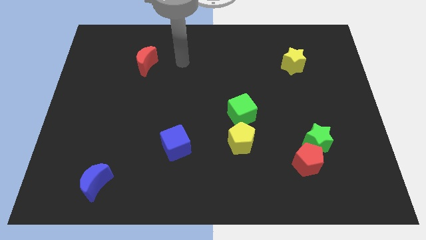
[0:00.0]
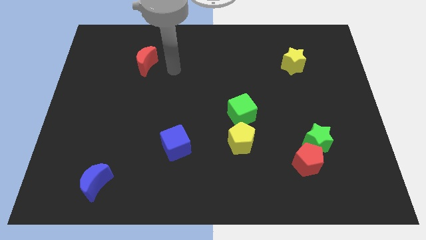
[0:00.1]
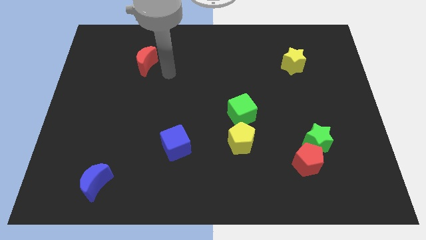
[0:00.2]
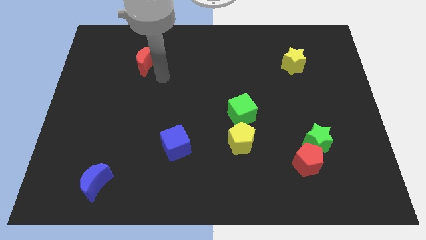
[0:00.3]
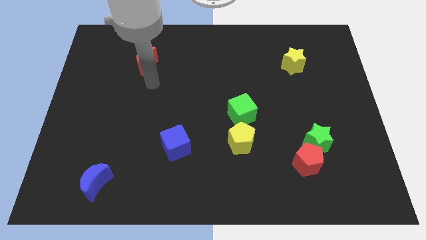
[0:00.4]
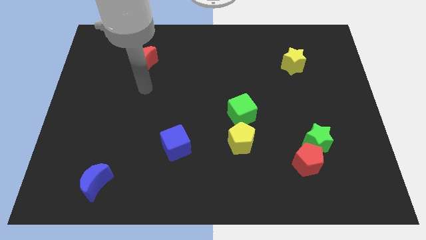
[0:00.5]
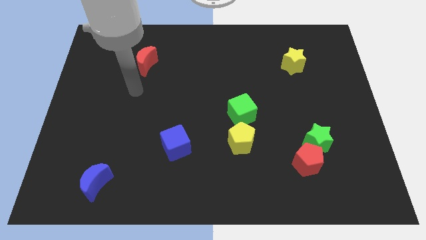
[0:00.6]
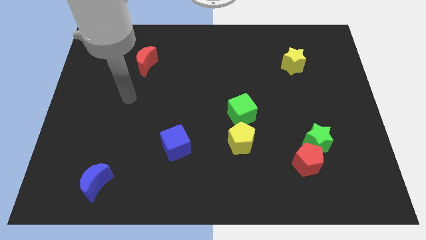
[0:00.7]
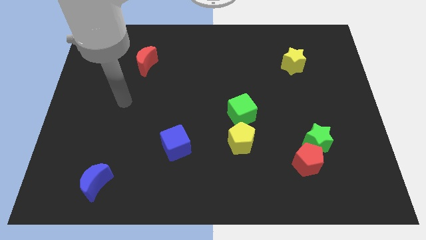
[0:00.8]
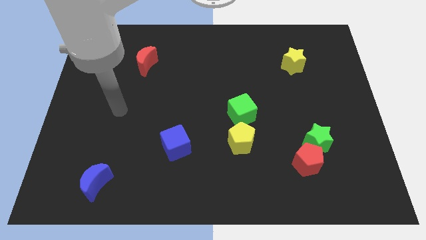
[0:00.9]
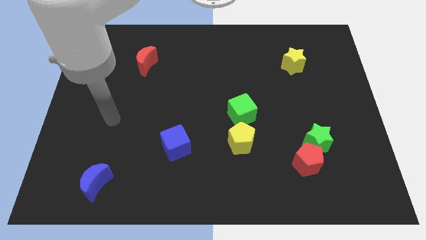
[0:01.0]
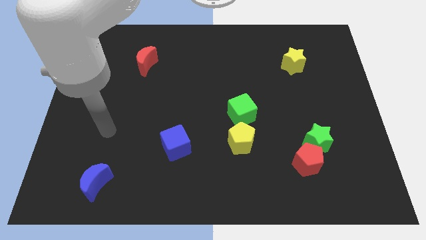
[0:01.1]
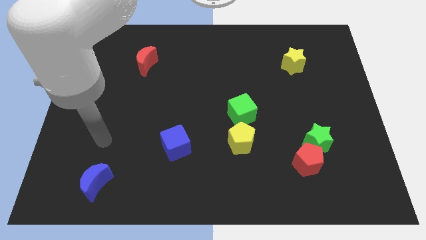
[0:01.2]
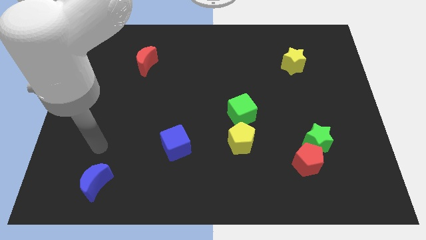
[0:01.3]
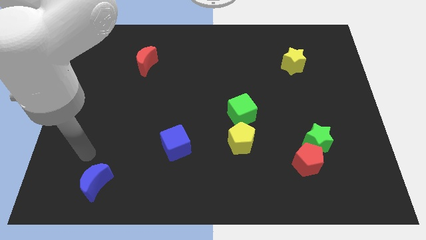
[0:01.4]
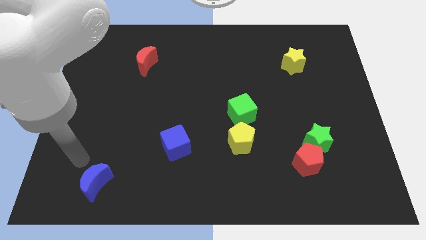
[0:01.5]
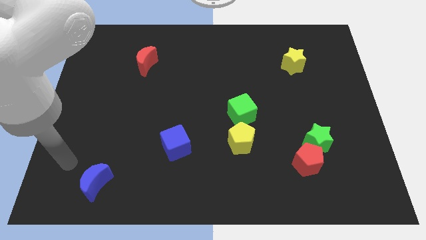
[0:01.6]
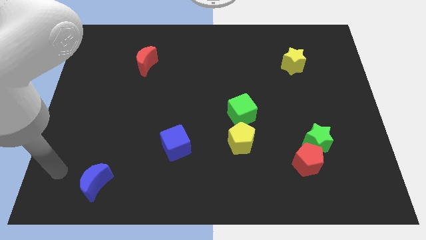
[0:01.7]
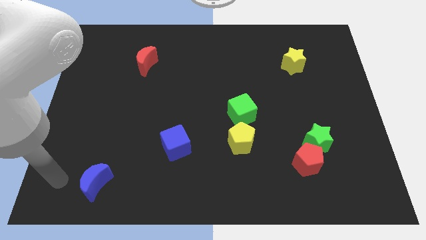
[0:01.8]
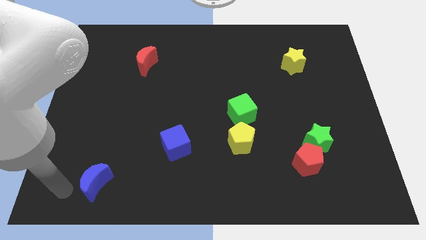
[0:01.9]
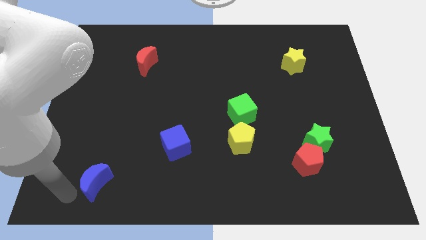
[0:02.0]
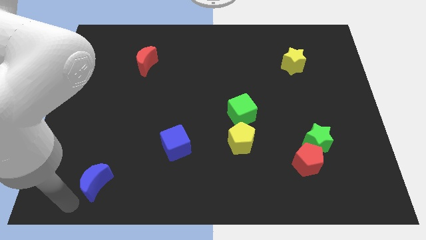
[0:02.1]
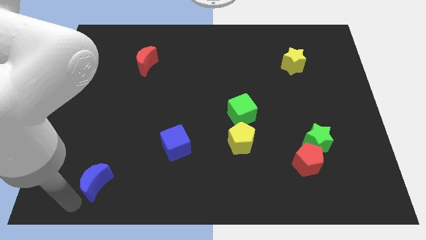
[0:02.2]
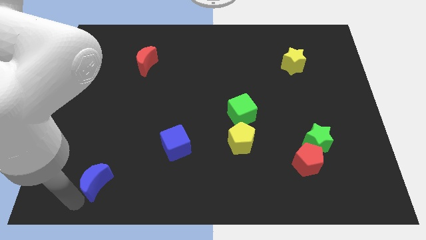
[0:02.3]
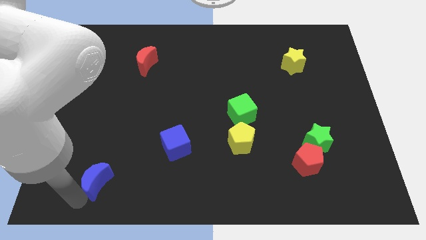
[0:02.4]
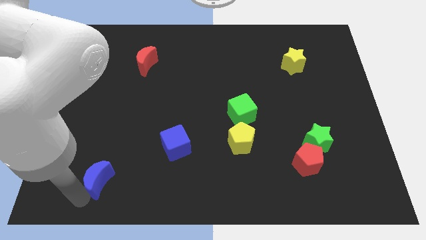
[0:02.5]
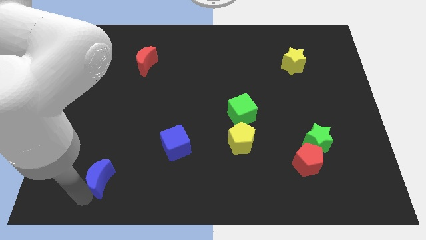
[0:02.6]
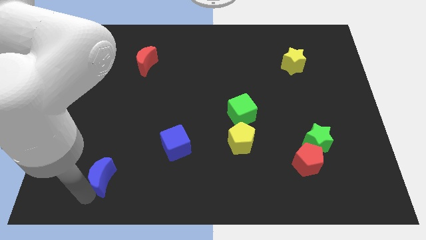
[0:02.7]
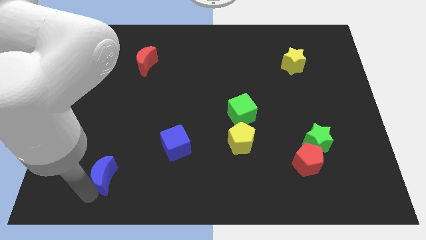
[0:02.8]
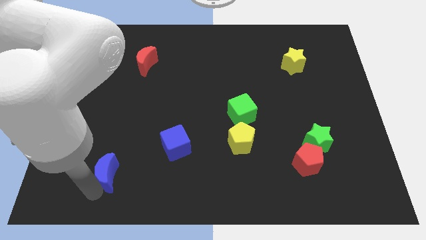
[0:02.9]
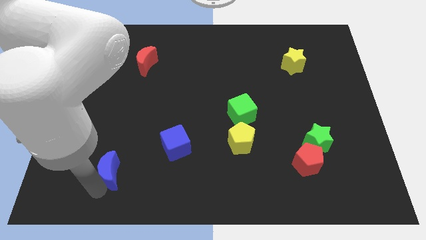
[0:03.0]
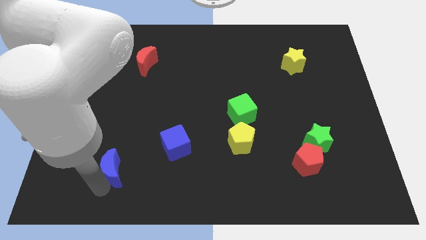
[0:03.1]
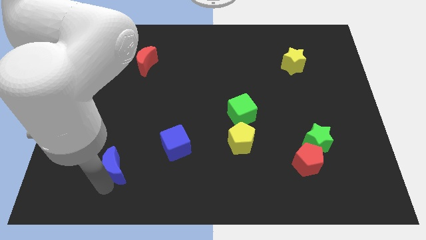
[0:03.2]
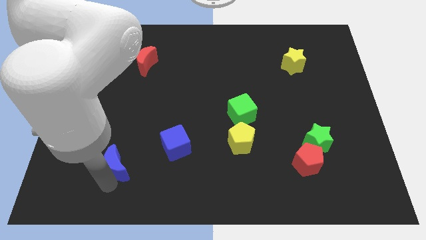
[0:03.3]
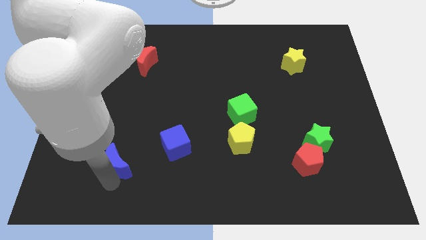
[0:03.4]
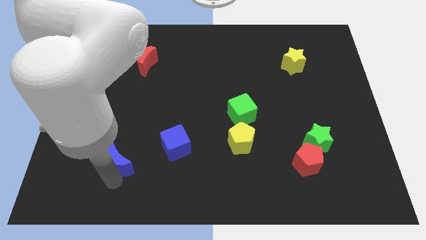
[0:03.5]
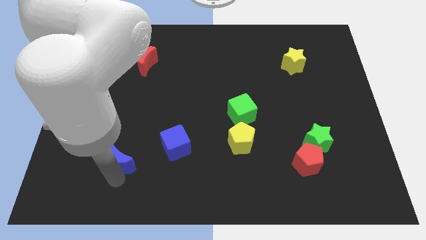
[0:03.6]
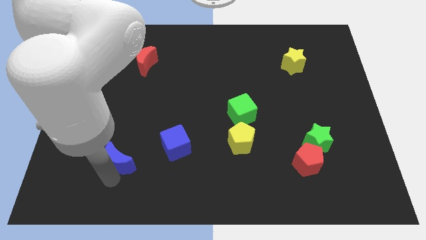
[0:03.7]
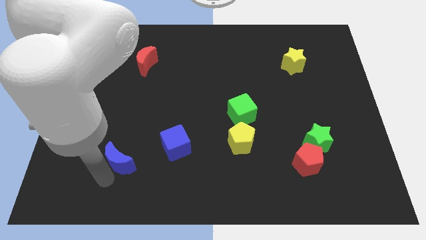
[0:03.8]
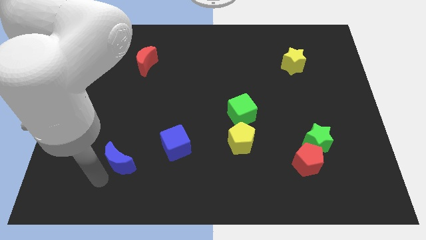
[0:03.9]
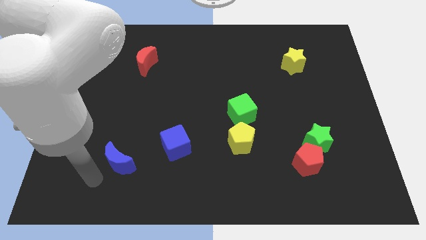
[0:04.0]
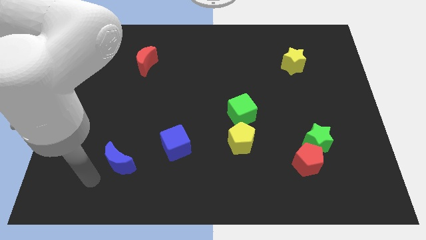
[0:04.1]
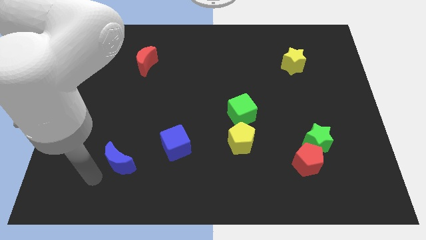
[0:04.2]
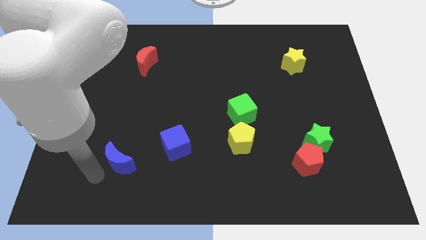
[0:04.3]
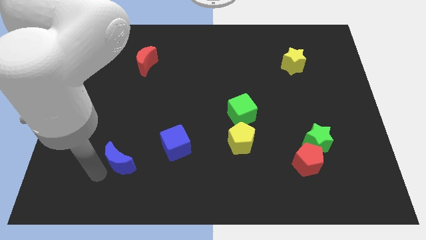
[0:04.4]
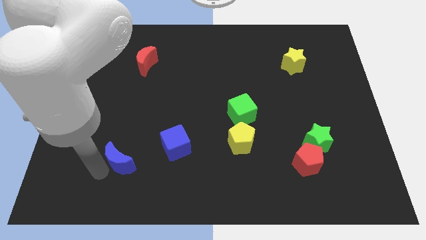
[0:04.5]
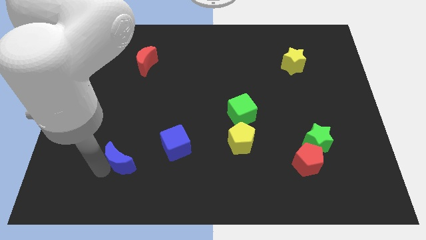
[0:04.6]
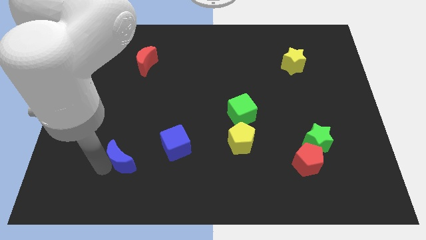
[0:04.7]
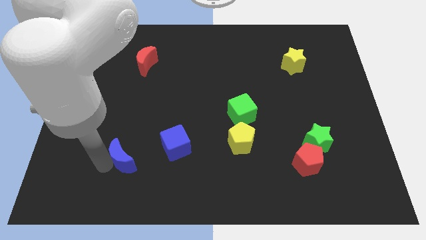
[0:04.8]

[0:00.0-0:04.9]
move the blue moon a bit upwards and right diagonally

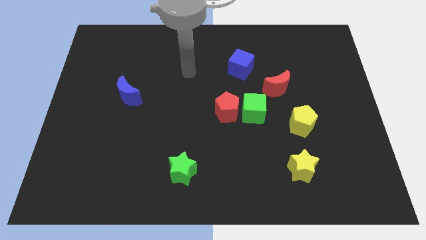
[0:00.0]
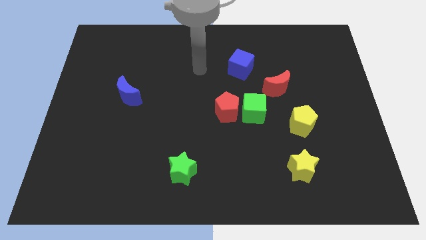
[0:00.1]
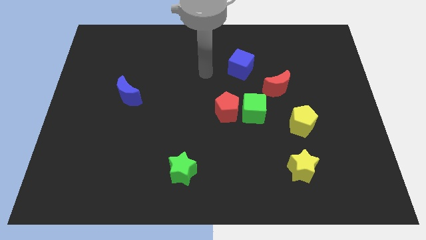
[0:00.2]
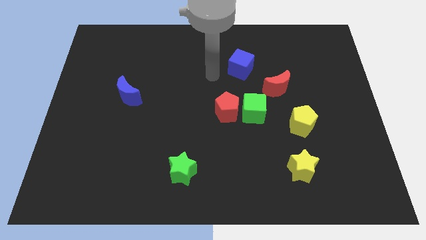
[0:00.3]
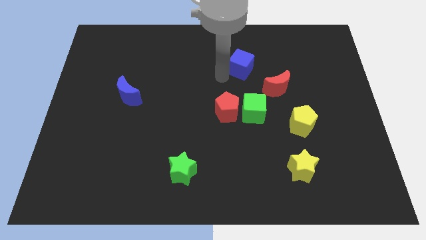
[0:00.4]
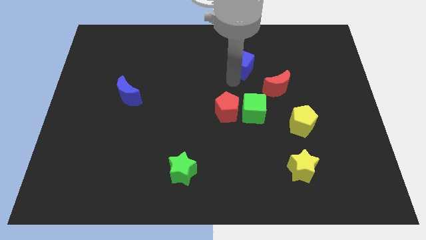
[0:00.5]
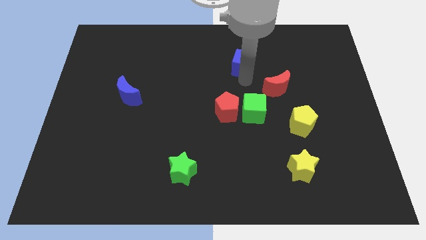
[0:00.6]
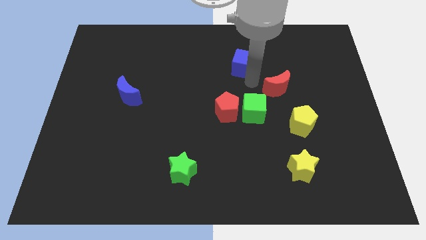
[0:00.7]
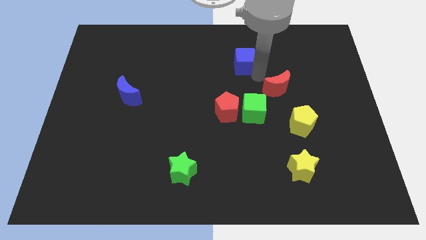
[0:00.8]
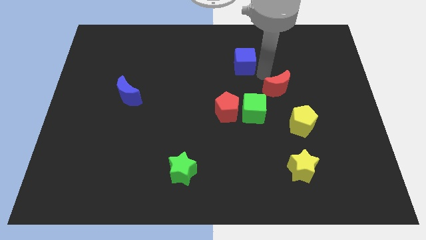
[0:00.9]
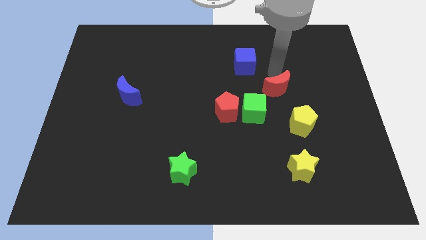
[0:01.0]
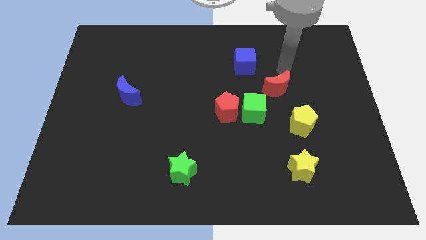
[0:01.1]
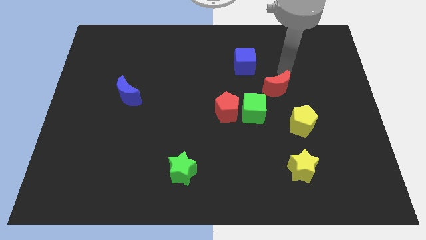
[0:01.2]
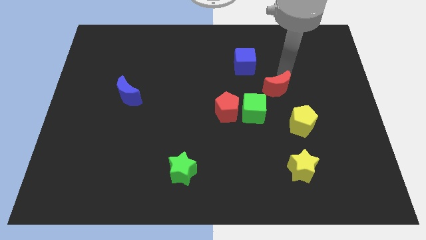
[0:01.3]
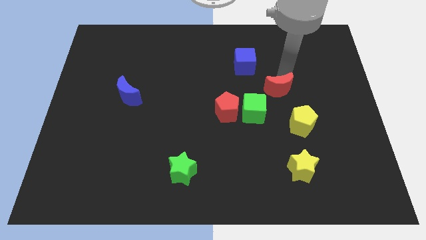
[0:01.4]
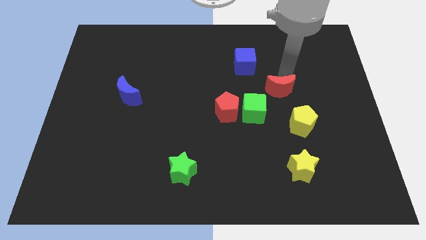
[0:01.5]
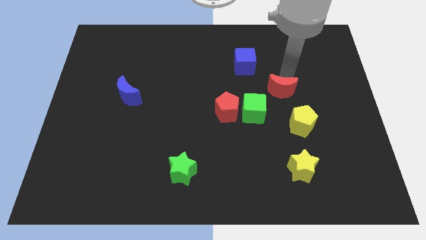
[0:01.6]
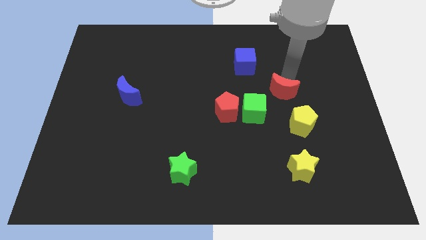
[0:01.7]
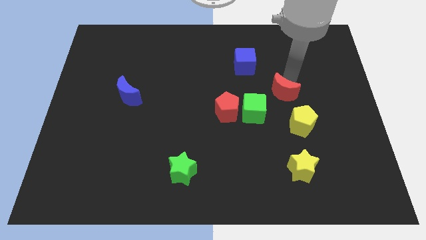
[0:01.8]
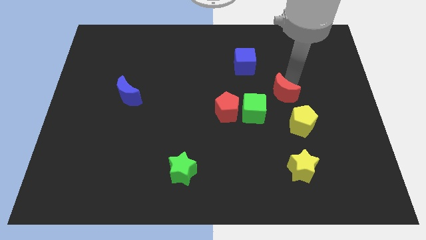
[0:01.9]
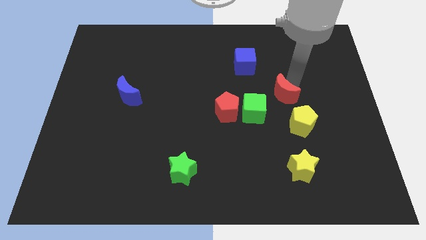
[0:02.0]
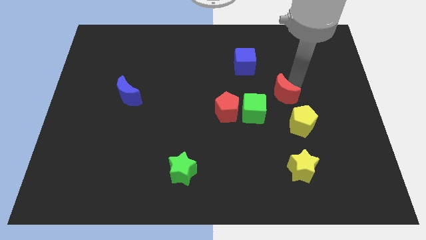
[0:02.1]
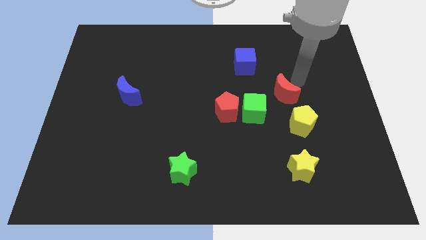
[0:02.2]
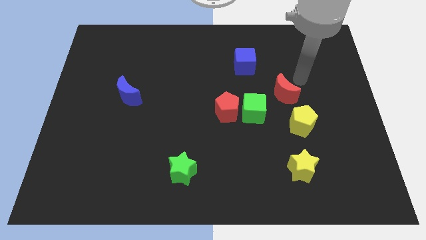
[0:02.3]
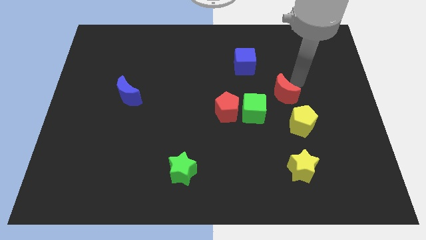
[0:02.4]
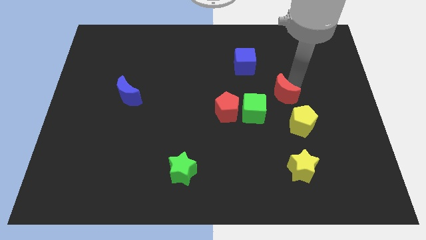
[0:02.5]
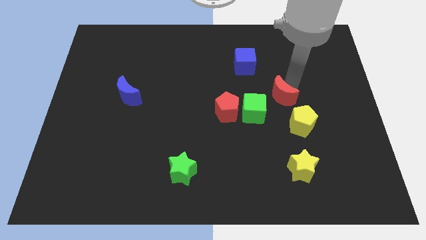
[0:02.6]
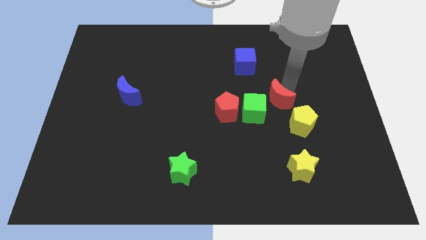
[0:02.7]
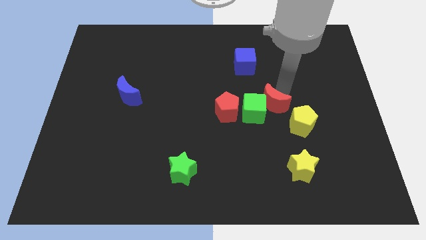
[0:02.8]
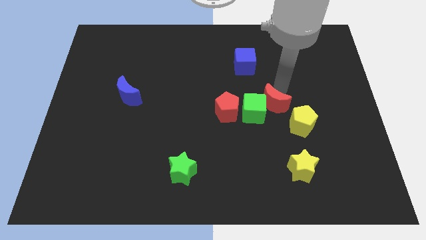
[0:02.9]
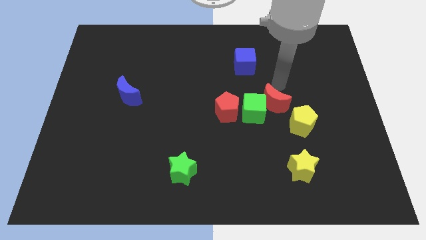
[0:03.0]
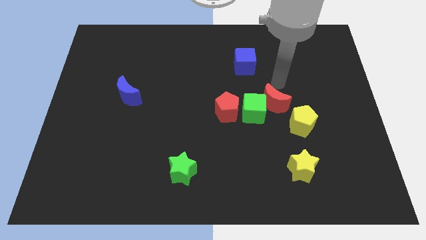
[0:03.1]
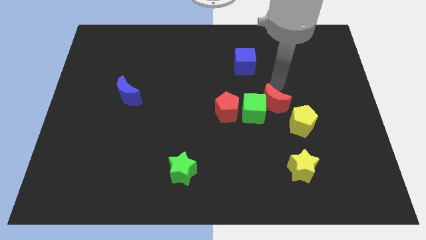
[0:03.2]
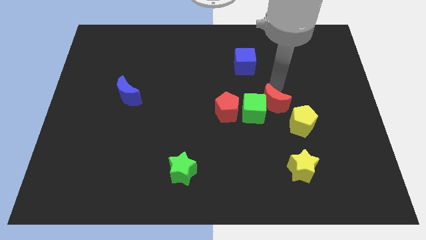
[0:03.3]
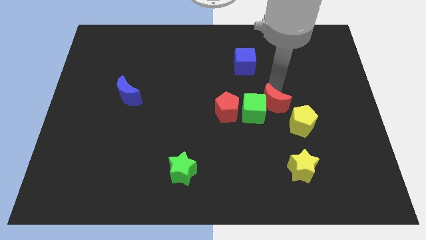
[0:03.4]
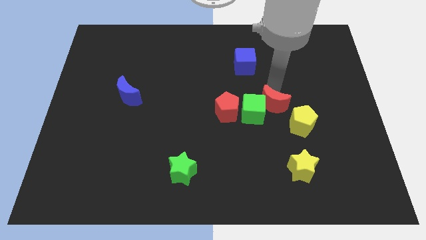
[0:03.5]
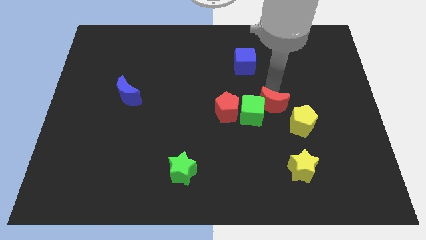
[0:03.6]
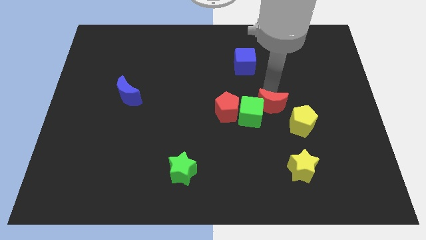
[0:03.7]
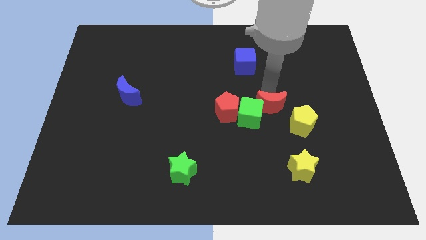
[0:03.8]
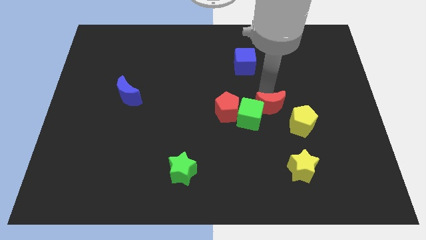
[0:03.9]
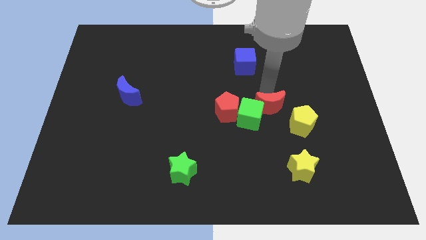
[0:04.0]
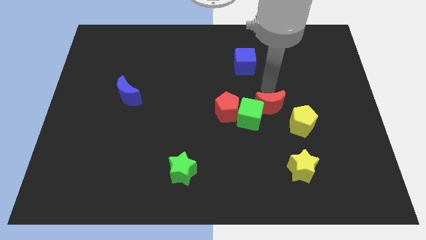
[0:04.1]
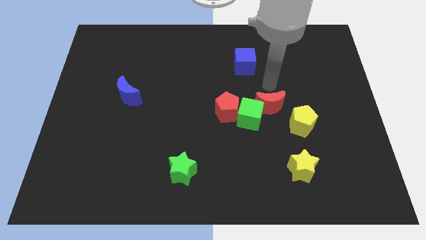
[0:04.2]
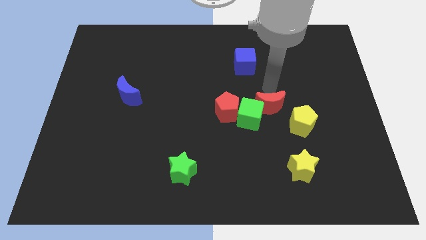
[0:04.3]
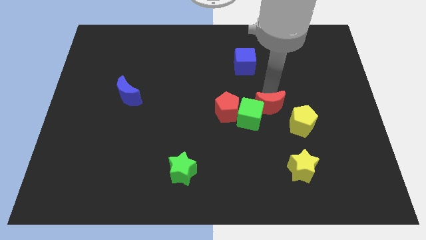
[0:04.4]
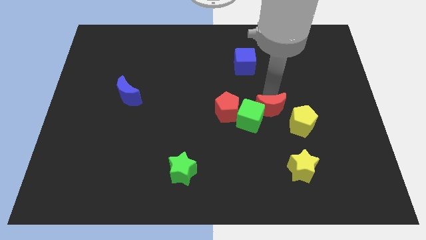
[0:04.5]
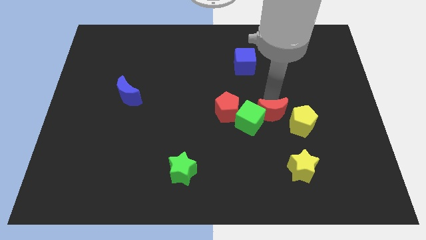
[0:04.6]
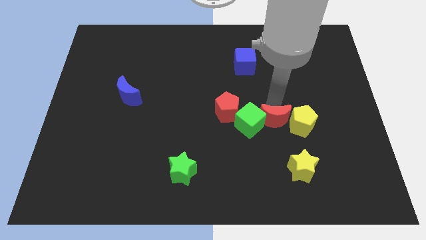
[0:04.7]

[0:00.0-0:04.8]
move the red moon down and to the left a little
